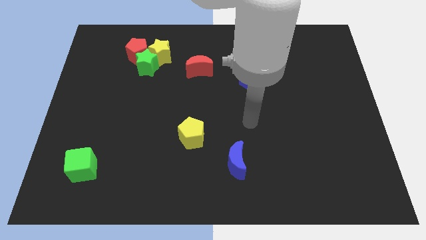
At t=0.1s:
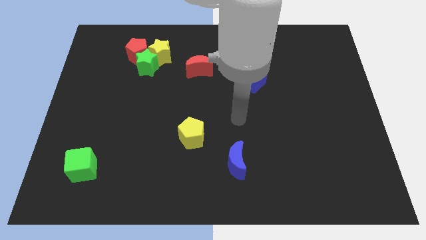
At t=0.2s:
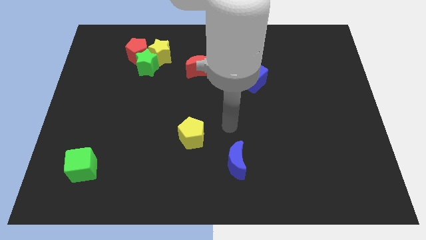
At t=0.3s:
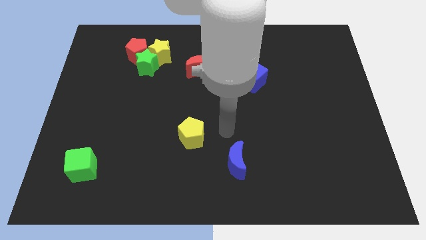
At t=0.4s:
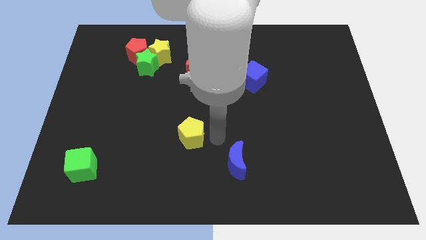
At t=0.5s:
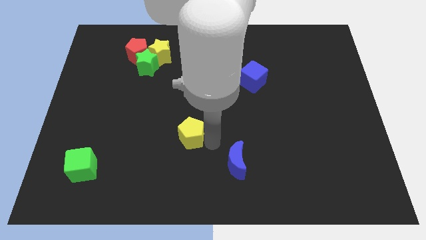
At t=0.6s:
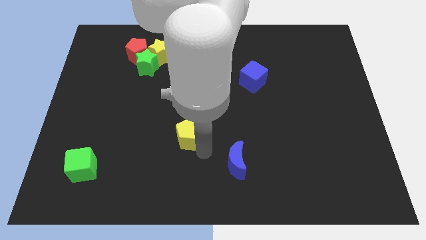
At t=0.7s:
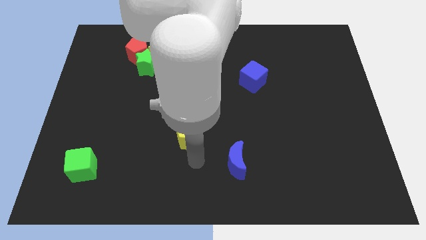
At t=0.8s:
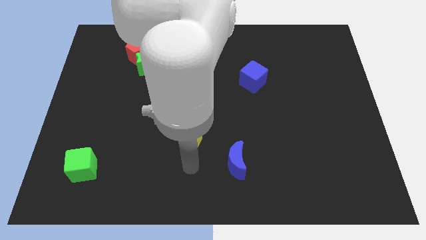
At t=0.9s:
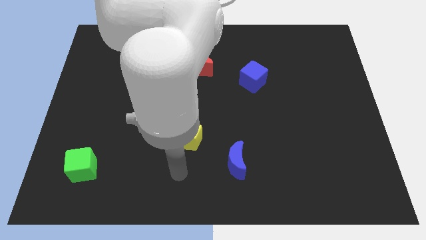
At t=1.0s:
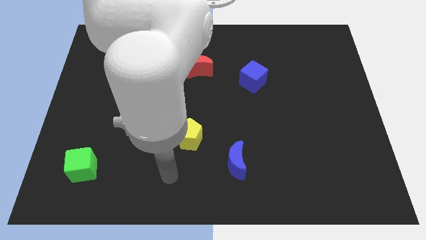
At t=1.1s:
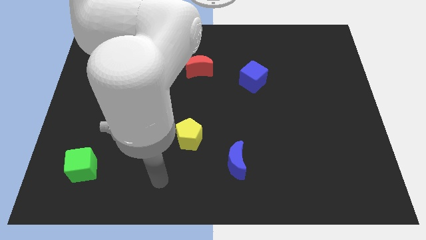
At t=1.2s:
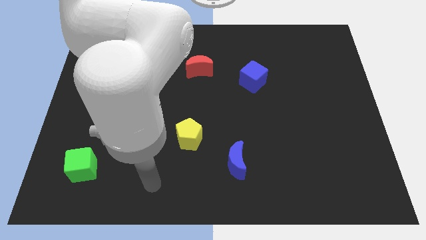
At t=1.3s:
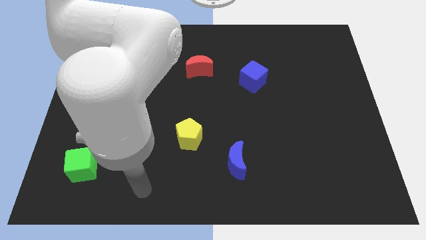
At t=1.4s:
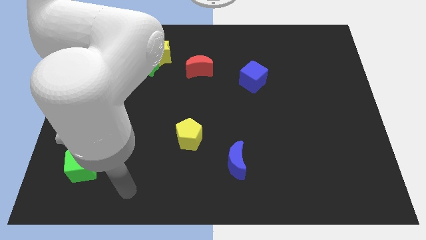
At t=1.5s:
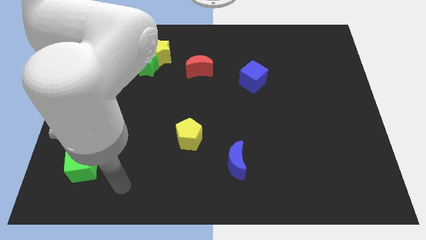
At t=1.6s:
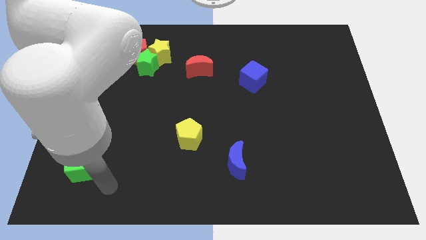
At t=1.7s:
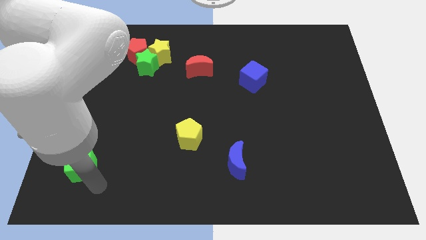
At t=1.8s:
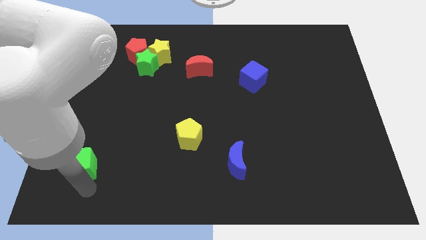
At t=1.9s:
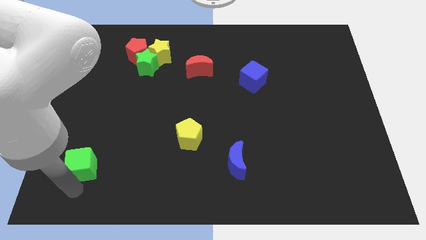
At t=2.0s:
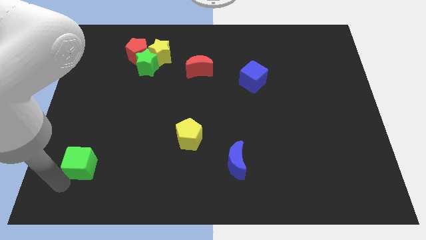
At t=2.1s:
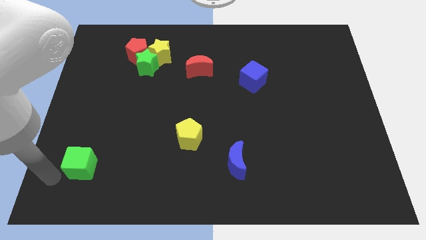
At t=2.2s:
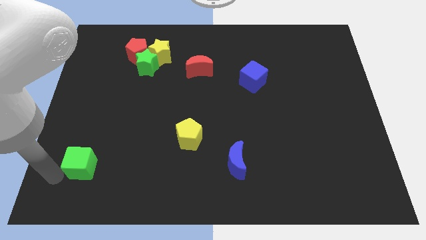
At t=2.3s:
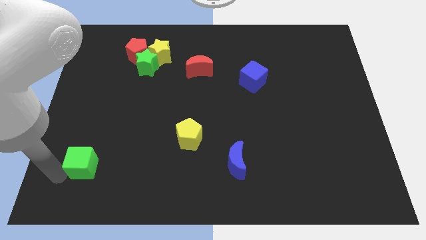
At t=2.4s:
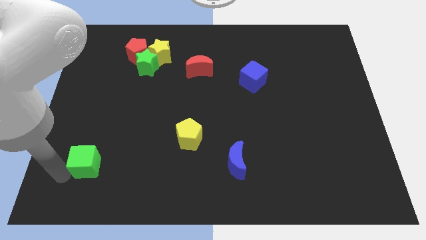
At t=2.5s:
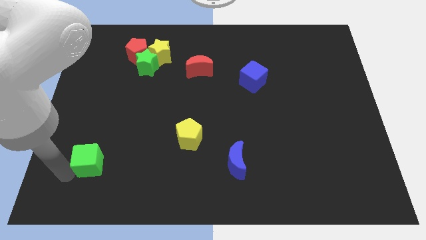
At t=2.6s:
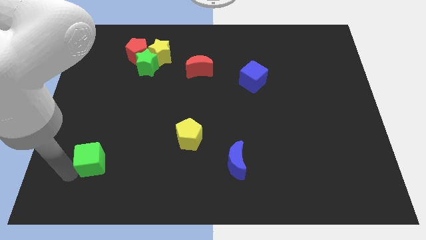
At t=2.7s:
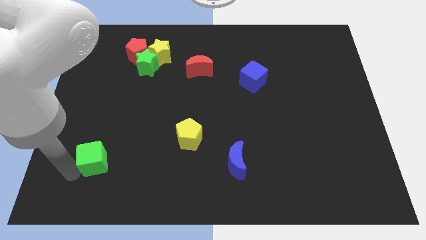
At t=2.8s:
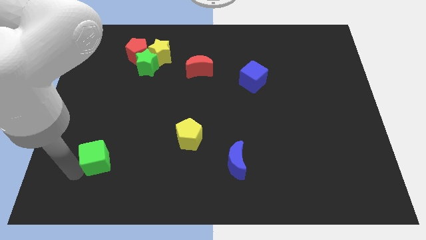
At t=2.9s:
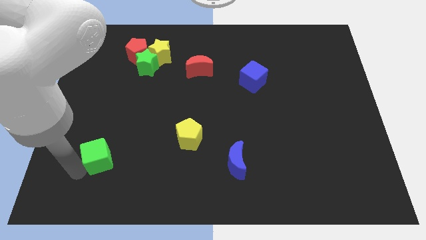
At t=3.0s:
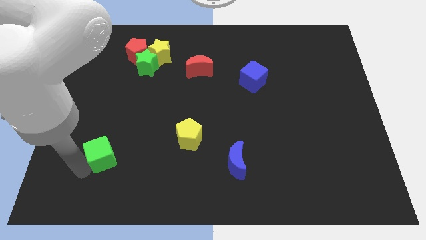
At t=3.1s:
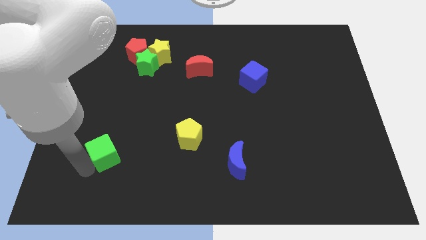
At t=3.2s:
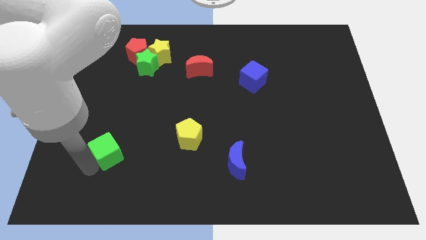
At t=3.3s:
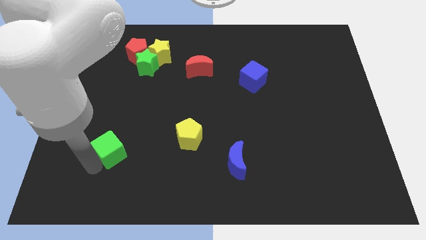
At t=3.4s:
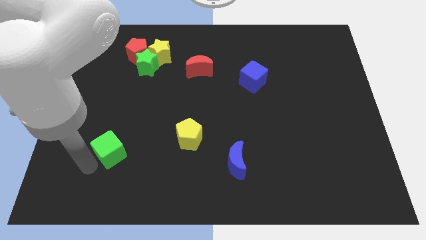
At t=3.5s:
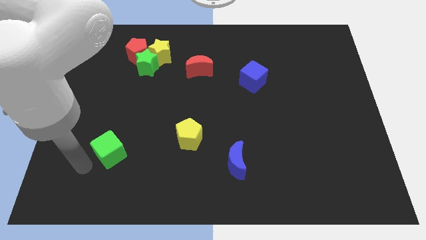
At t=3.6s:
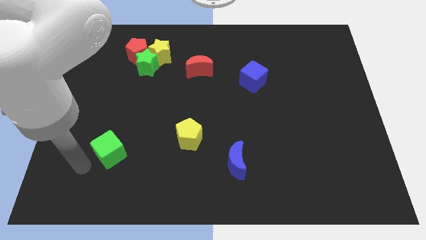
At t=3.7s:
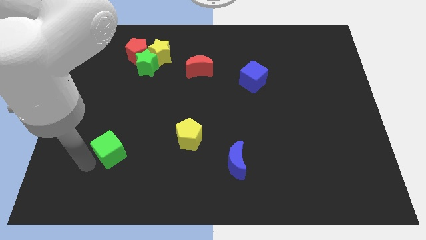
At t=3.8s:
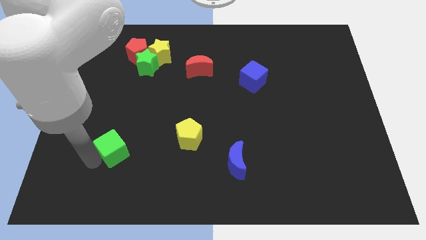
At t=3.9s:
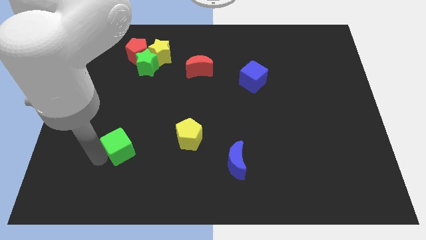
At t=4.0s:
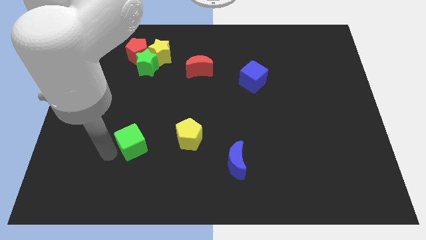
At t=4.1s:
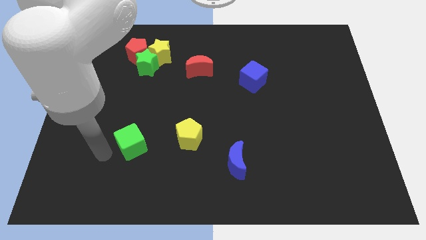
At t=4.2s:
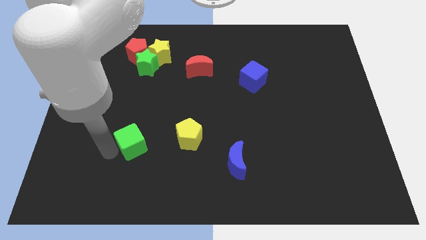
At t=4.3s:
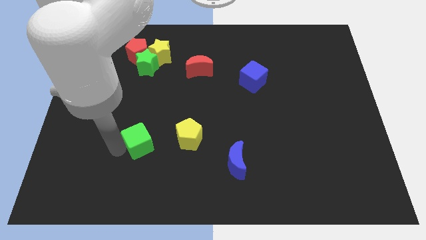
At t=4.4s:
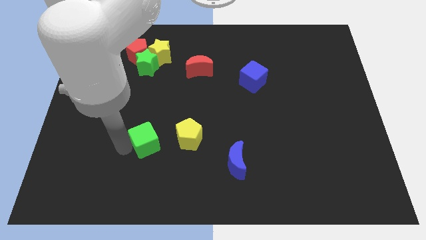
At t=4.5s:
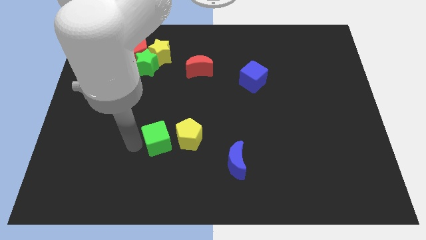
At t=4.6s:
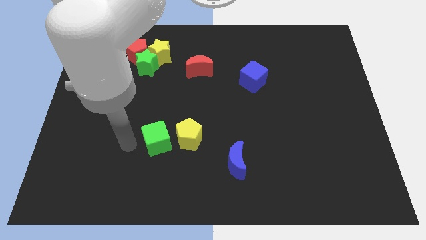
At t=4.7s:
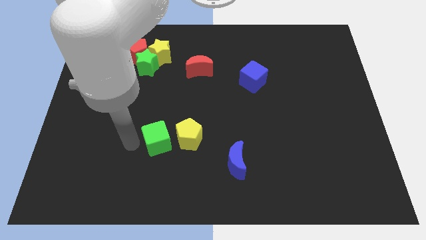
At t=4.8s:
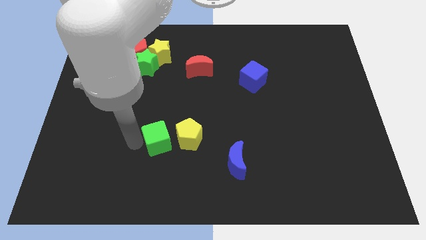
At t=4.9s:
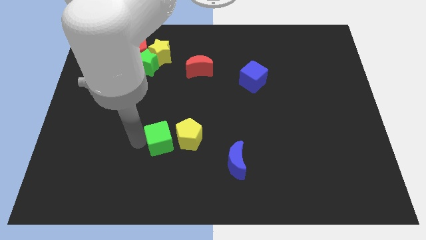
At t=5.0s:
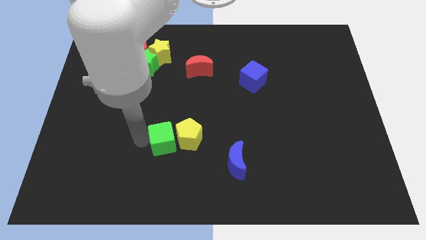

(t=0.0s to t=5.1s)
move the green cube next to the yellow pentagon

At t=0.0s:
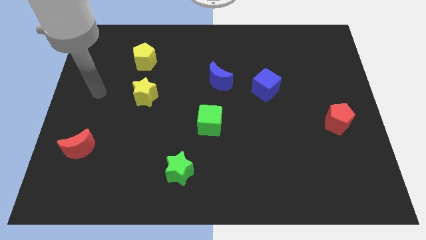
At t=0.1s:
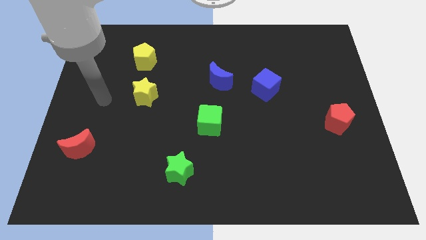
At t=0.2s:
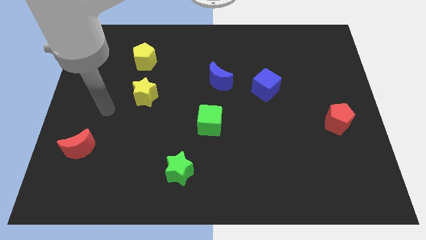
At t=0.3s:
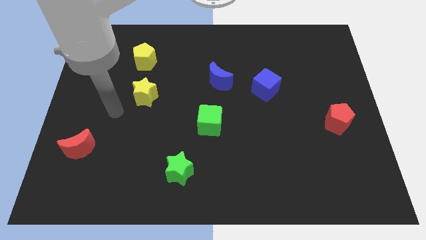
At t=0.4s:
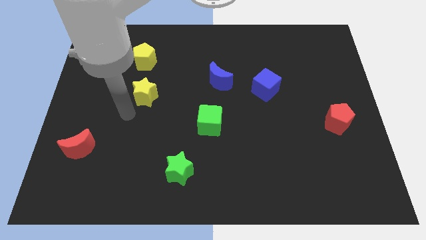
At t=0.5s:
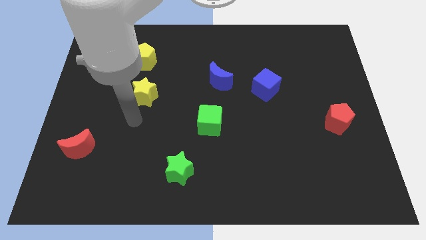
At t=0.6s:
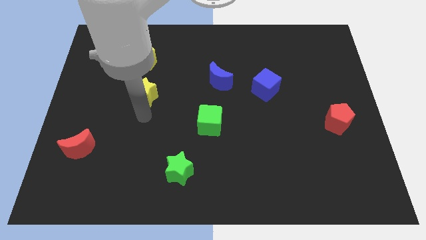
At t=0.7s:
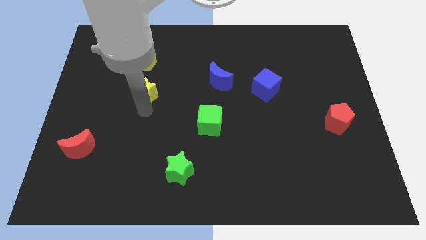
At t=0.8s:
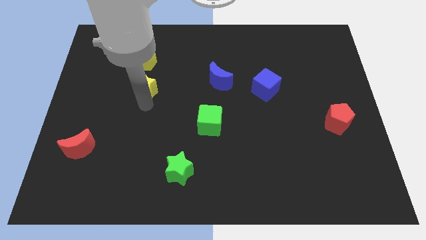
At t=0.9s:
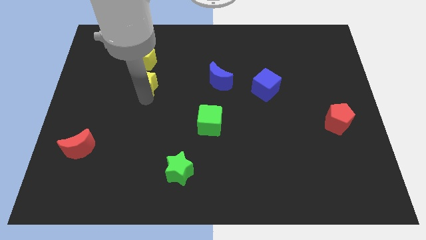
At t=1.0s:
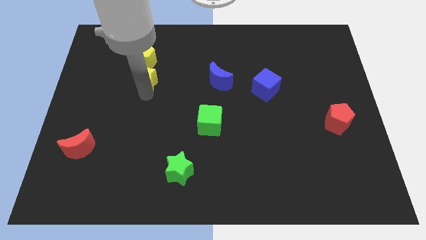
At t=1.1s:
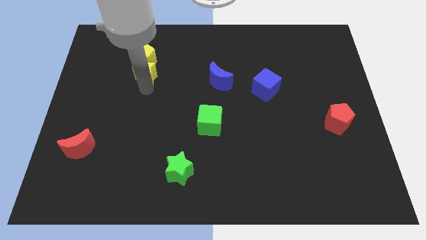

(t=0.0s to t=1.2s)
push the yellow star next to the yellow pentagon

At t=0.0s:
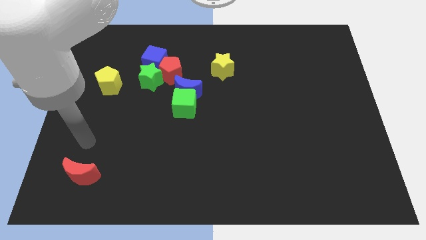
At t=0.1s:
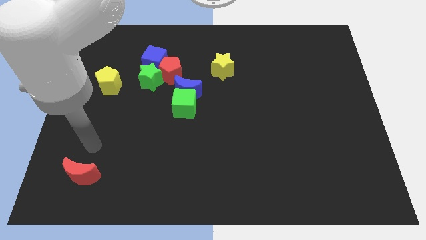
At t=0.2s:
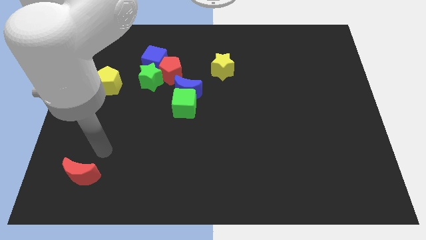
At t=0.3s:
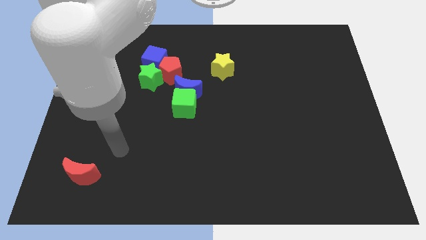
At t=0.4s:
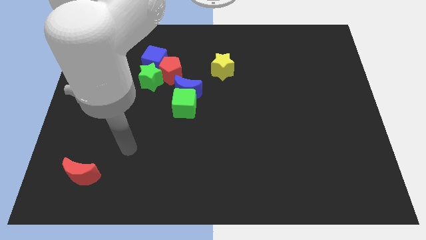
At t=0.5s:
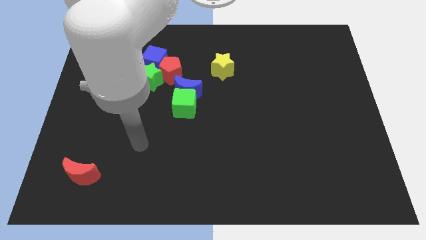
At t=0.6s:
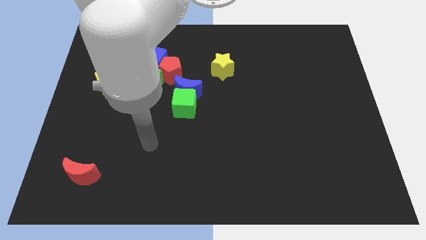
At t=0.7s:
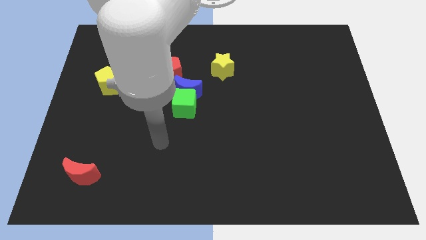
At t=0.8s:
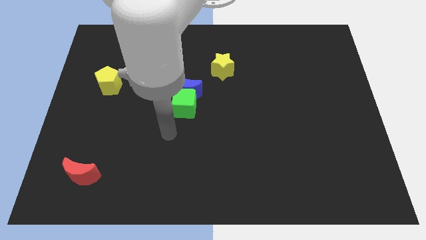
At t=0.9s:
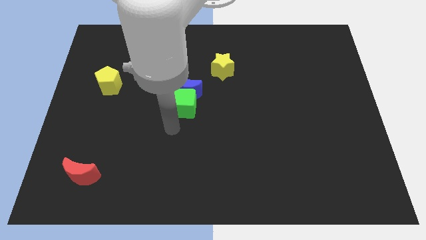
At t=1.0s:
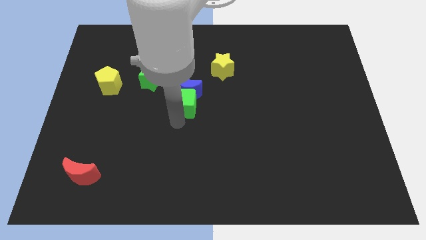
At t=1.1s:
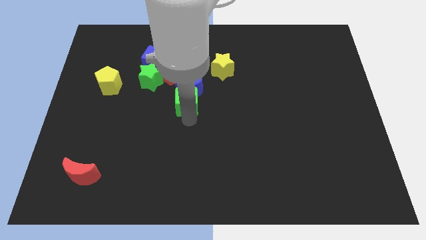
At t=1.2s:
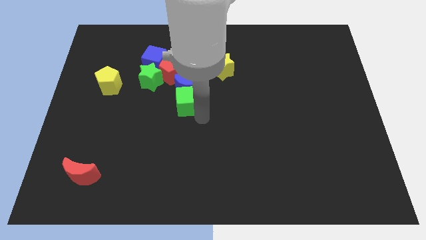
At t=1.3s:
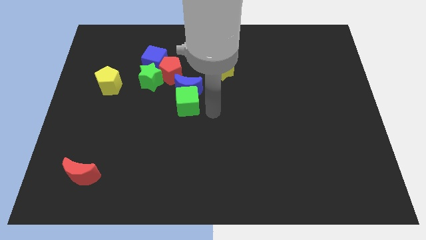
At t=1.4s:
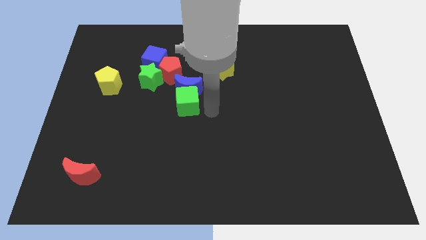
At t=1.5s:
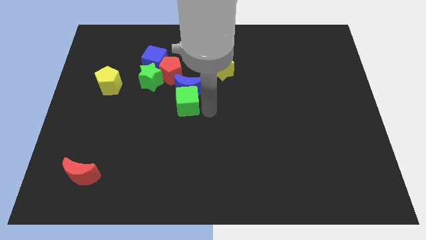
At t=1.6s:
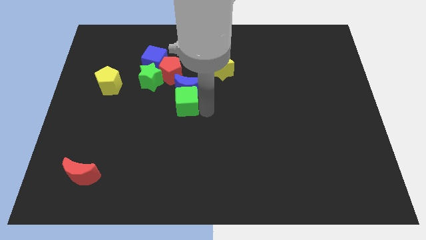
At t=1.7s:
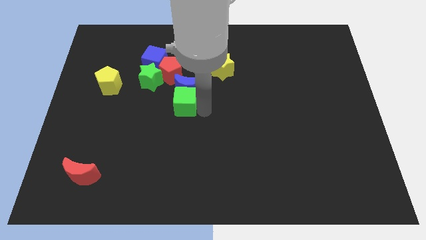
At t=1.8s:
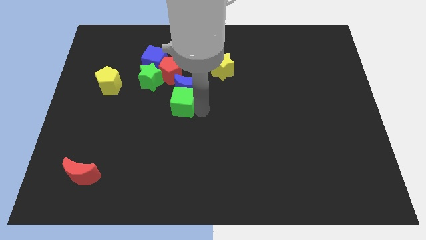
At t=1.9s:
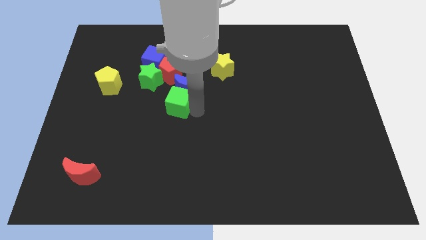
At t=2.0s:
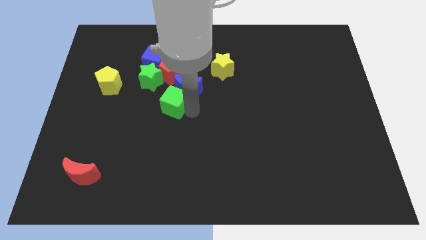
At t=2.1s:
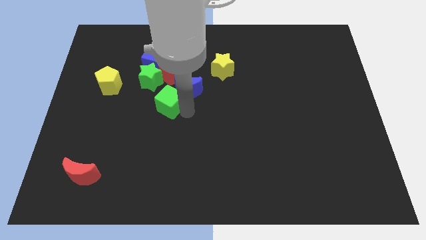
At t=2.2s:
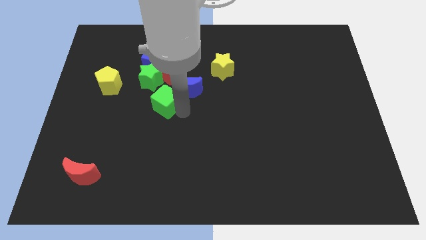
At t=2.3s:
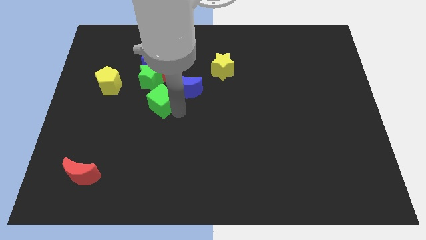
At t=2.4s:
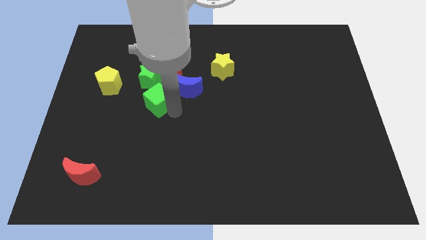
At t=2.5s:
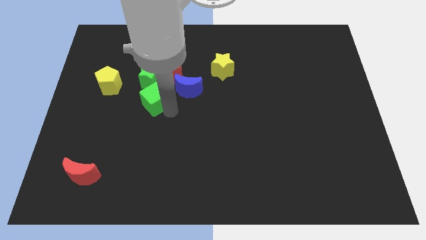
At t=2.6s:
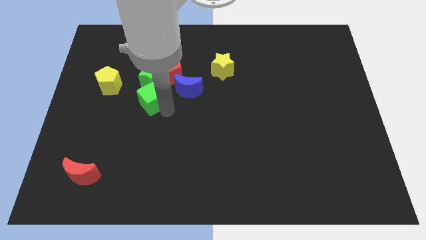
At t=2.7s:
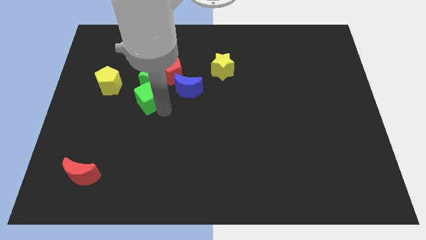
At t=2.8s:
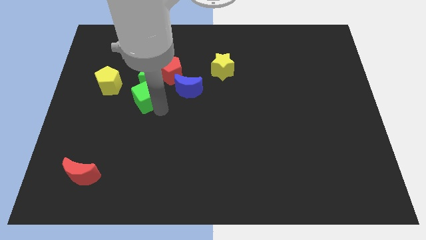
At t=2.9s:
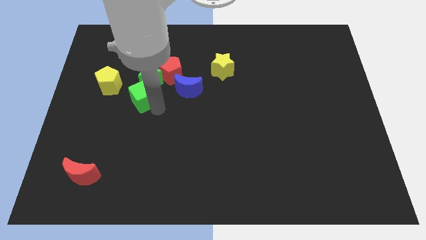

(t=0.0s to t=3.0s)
slide the green cube to the green star
